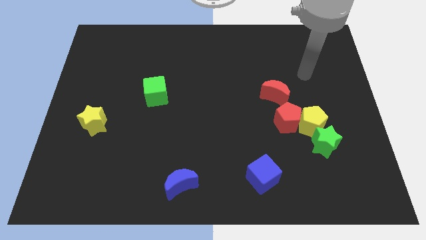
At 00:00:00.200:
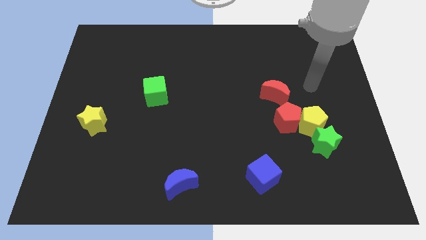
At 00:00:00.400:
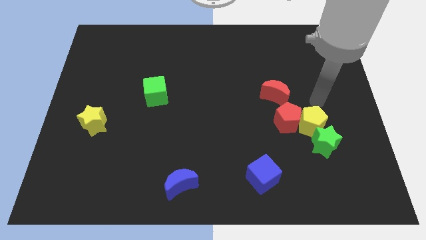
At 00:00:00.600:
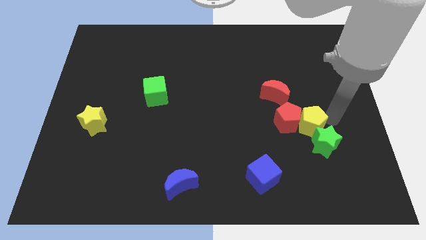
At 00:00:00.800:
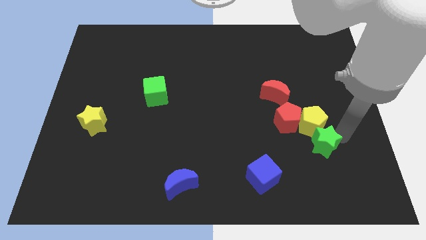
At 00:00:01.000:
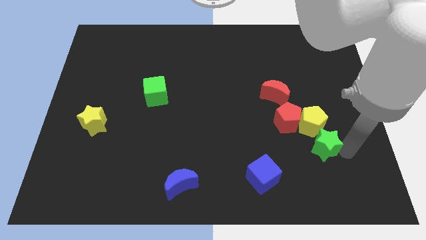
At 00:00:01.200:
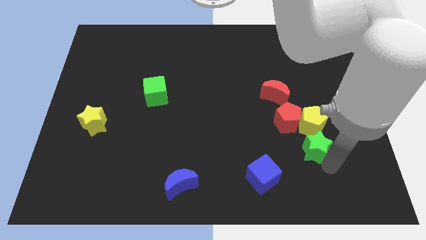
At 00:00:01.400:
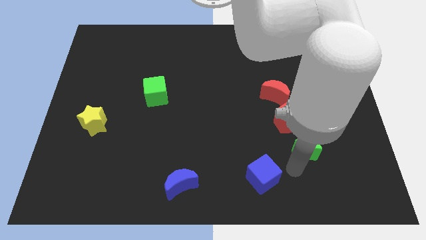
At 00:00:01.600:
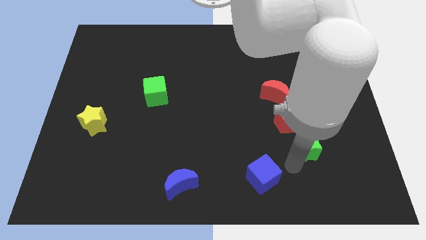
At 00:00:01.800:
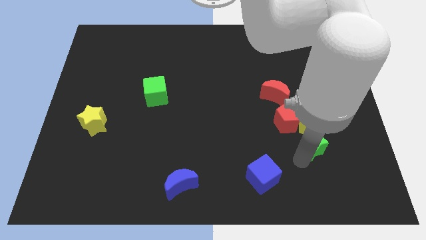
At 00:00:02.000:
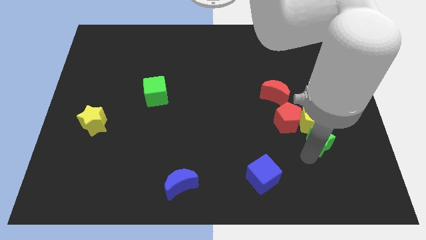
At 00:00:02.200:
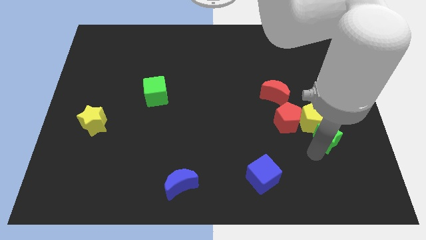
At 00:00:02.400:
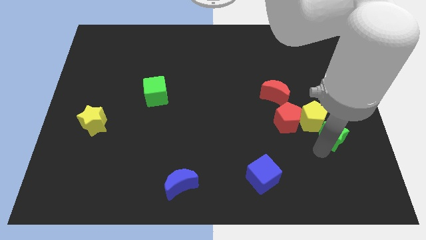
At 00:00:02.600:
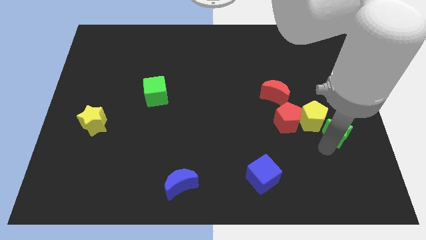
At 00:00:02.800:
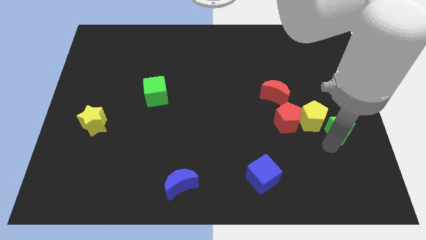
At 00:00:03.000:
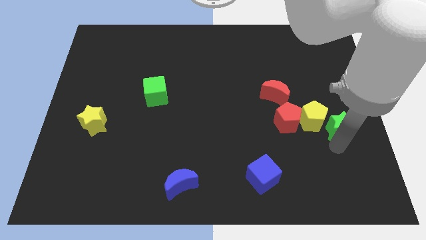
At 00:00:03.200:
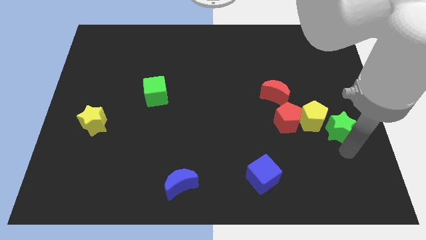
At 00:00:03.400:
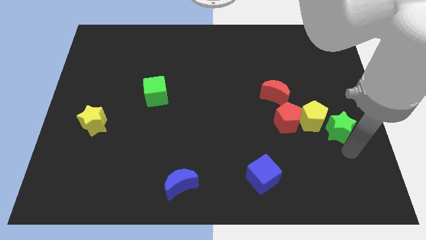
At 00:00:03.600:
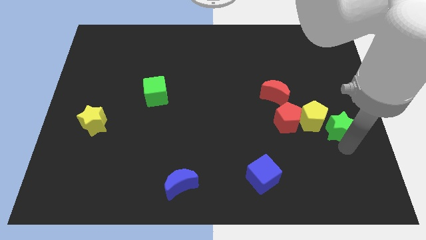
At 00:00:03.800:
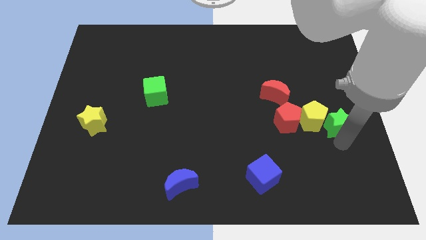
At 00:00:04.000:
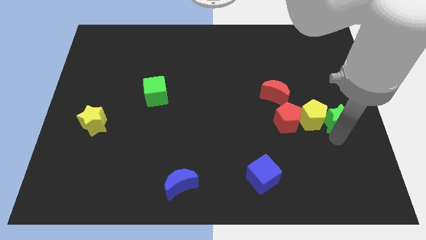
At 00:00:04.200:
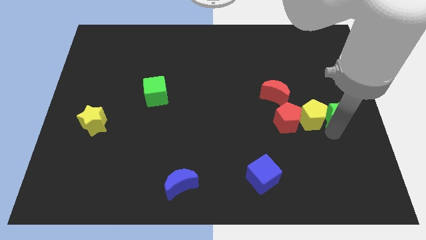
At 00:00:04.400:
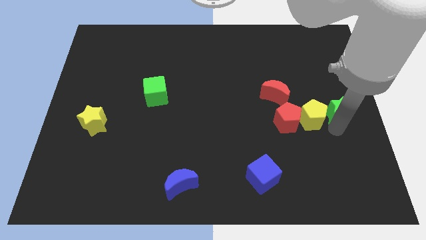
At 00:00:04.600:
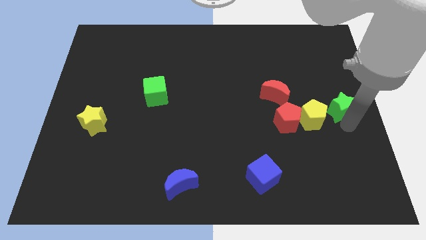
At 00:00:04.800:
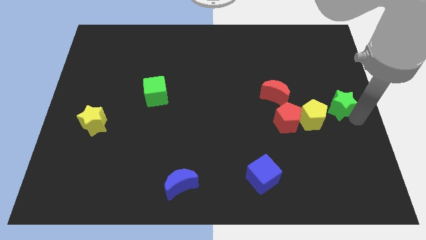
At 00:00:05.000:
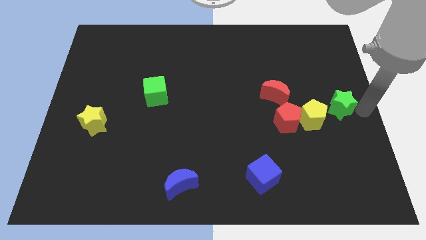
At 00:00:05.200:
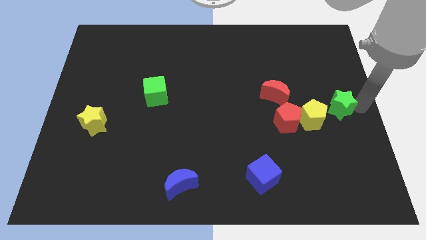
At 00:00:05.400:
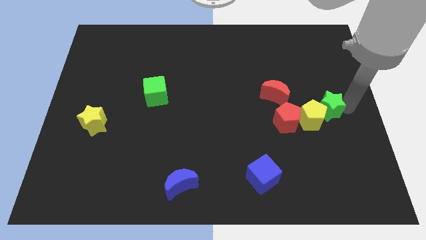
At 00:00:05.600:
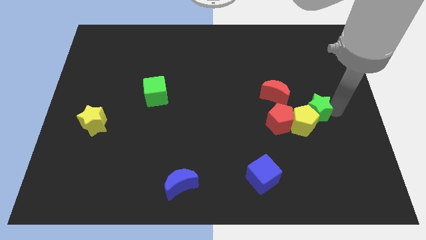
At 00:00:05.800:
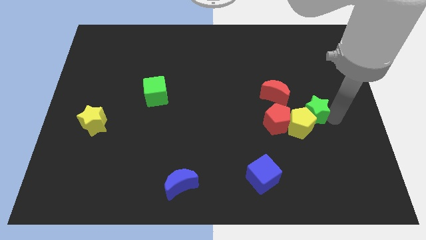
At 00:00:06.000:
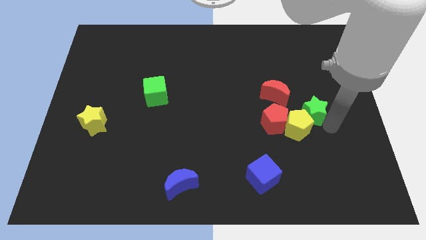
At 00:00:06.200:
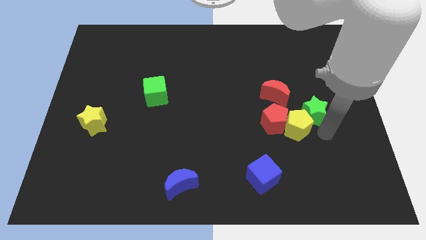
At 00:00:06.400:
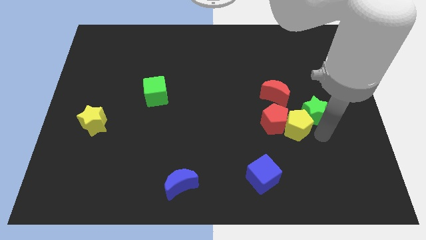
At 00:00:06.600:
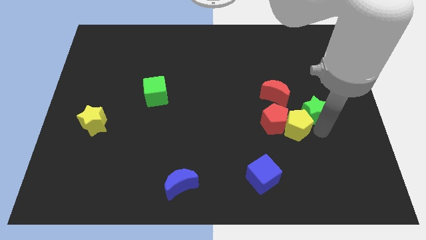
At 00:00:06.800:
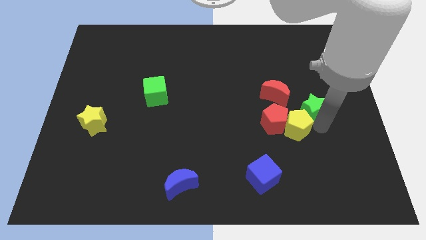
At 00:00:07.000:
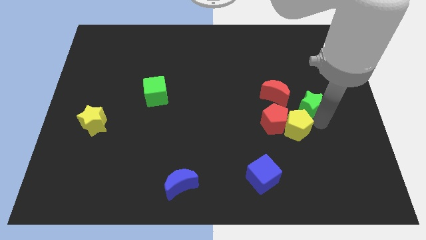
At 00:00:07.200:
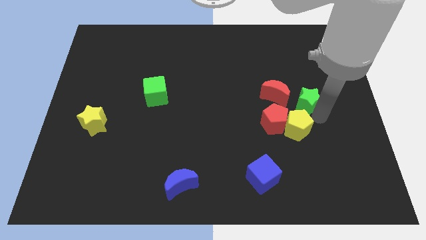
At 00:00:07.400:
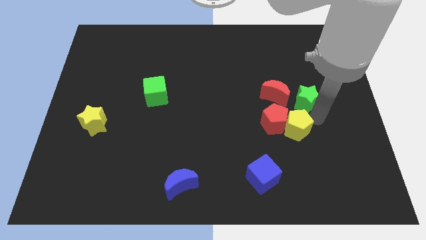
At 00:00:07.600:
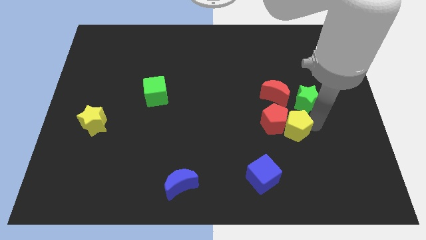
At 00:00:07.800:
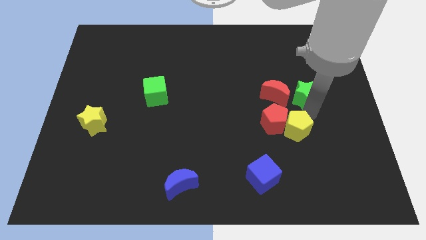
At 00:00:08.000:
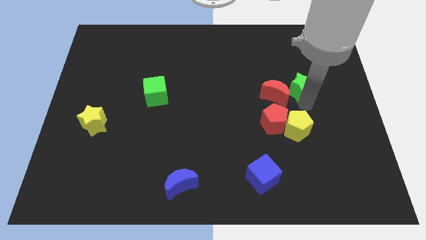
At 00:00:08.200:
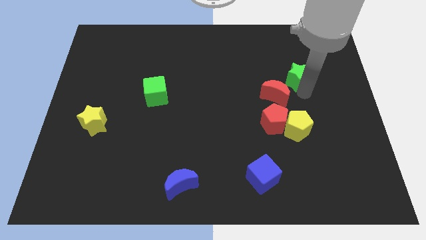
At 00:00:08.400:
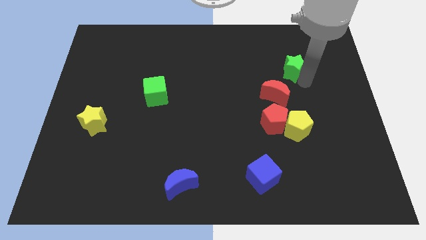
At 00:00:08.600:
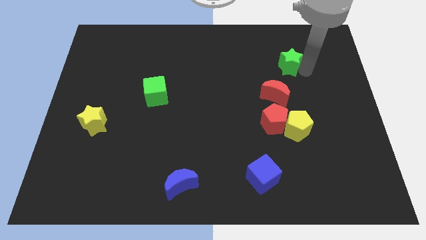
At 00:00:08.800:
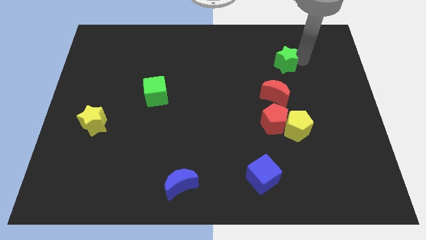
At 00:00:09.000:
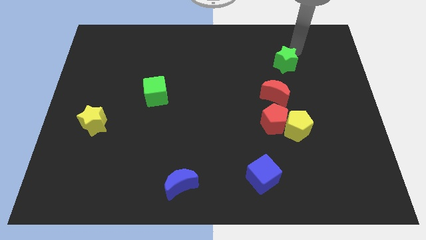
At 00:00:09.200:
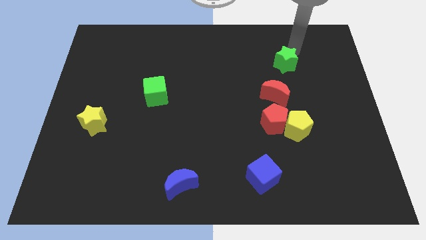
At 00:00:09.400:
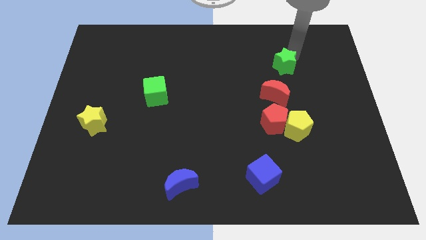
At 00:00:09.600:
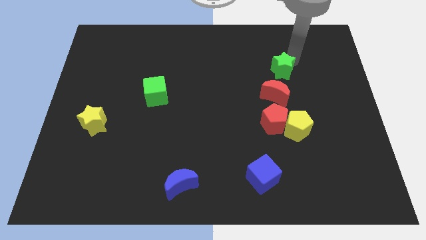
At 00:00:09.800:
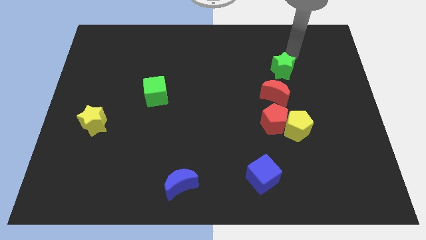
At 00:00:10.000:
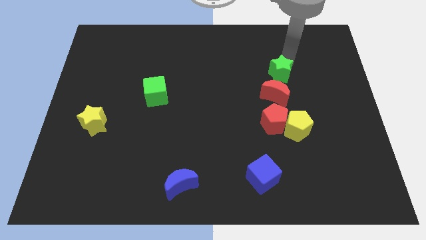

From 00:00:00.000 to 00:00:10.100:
put the green star above the red pentagon

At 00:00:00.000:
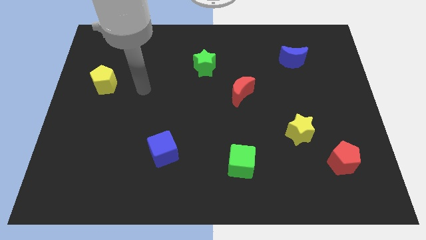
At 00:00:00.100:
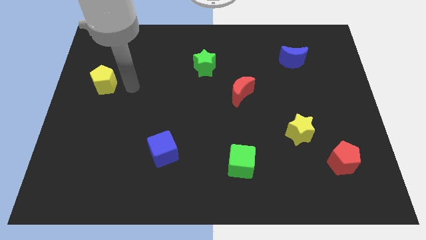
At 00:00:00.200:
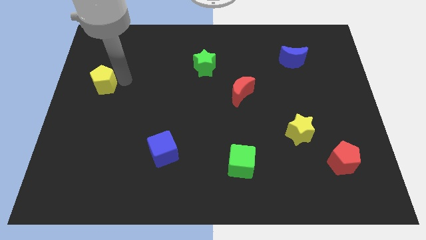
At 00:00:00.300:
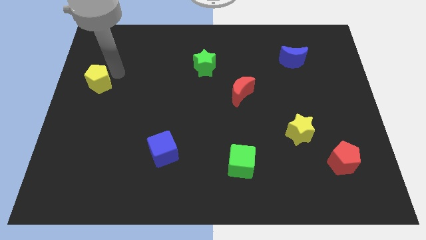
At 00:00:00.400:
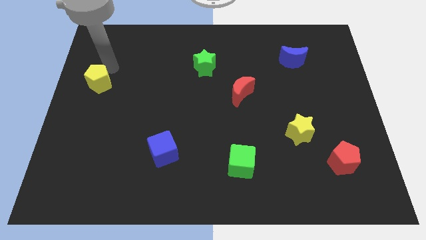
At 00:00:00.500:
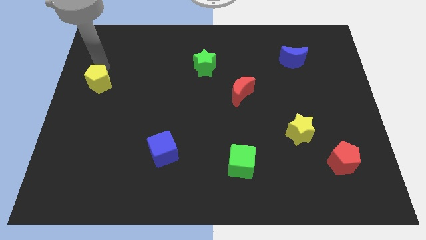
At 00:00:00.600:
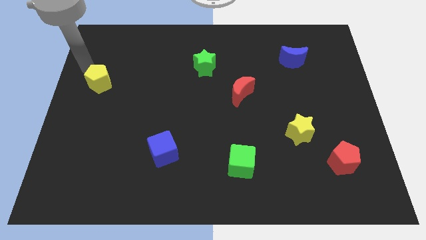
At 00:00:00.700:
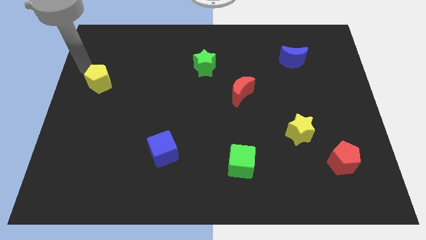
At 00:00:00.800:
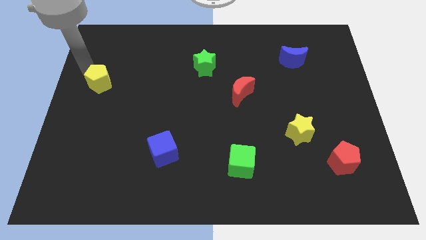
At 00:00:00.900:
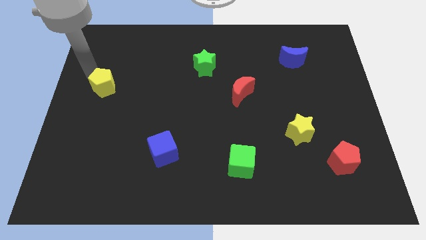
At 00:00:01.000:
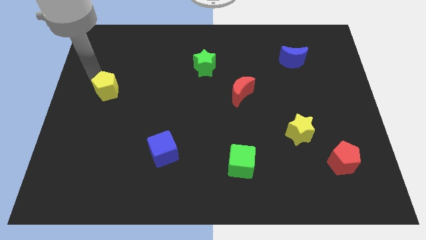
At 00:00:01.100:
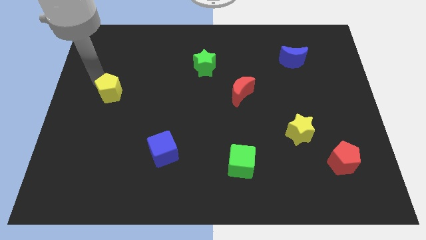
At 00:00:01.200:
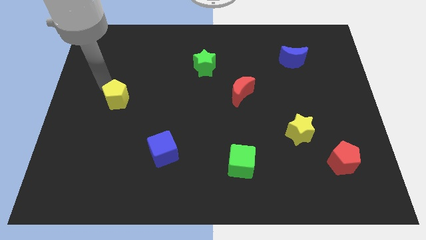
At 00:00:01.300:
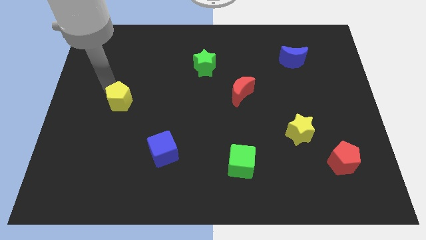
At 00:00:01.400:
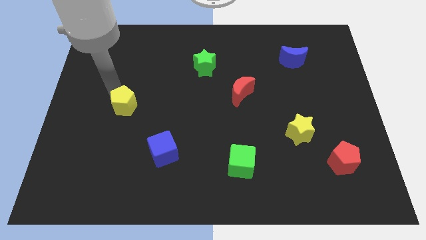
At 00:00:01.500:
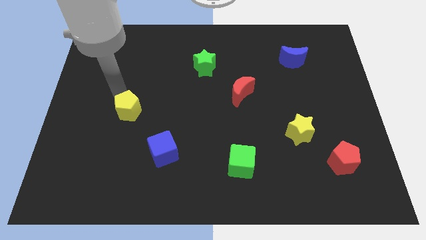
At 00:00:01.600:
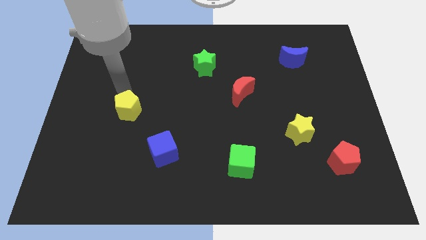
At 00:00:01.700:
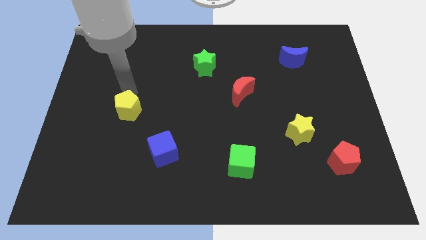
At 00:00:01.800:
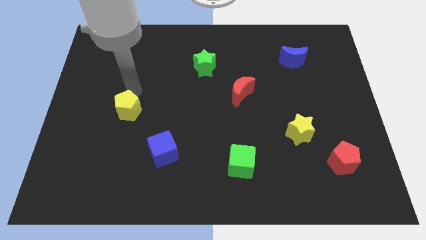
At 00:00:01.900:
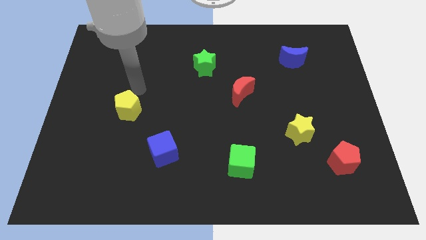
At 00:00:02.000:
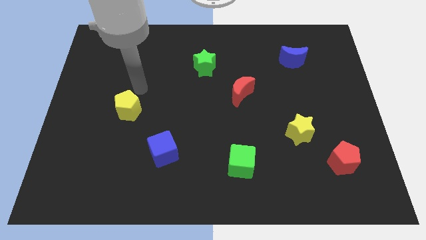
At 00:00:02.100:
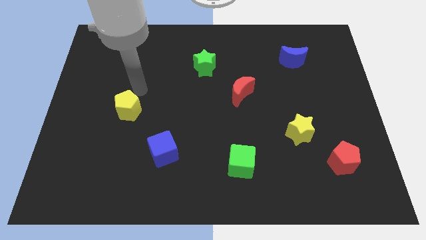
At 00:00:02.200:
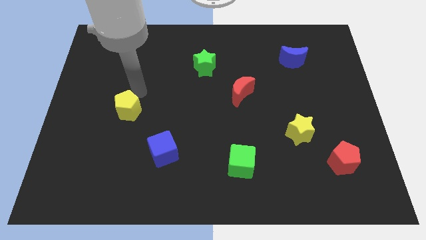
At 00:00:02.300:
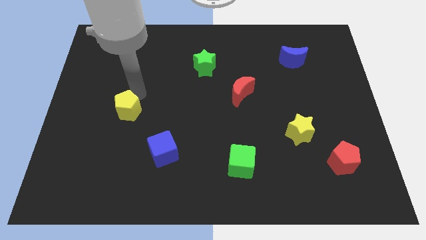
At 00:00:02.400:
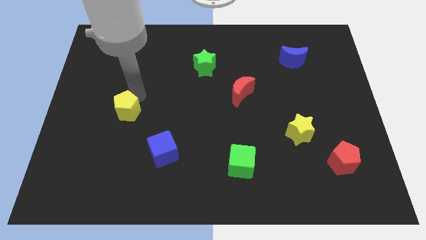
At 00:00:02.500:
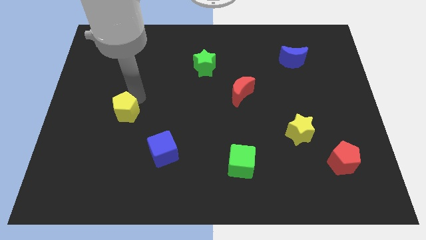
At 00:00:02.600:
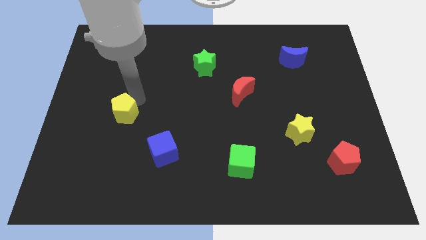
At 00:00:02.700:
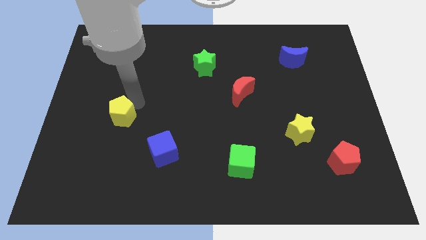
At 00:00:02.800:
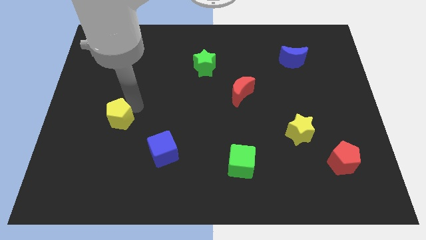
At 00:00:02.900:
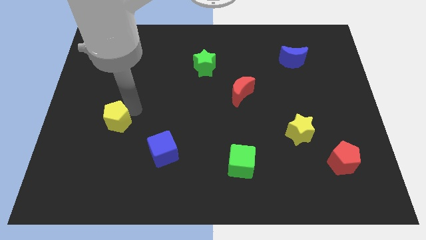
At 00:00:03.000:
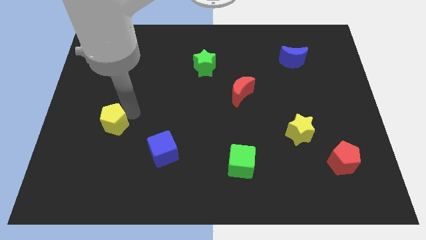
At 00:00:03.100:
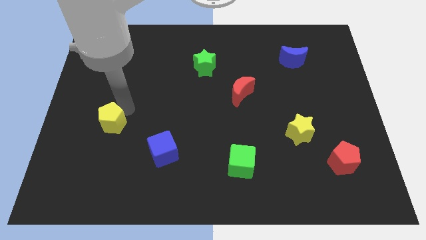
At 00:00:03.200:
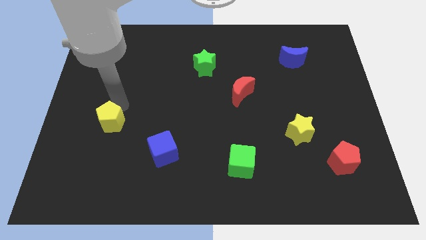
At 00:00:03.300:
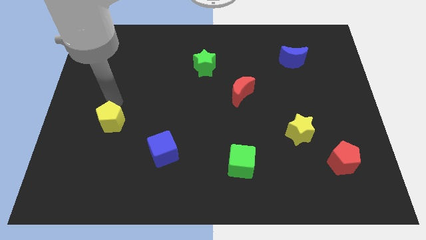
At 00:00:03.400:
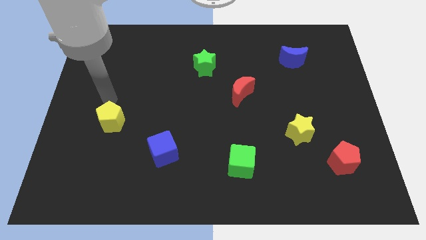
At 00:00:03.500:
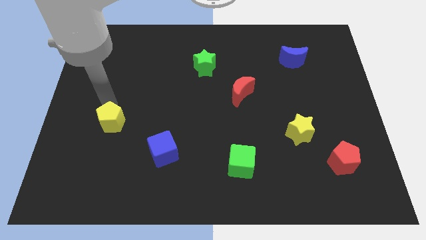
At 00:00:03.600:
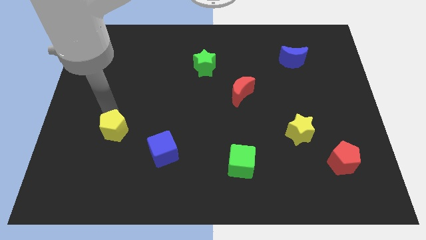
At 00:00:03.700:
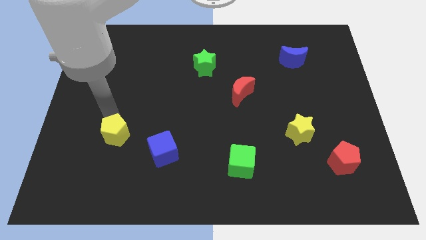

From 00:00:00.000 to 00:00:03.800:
put the yellow pentagon to the left side of the blue cube
